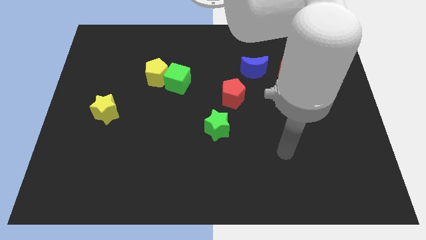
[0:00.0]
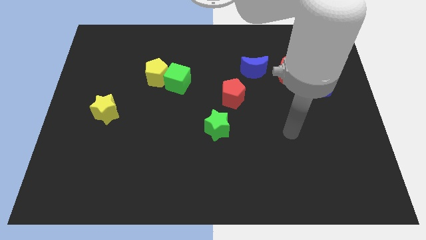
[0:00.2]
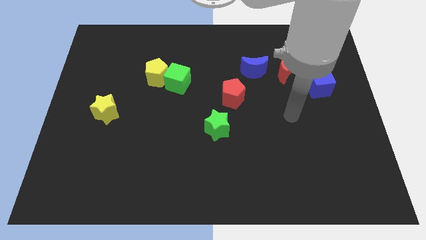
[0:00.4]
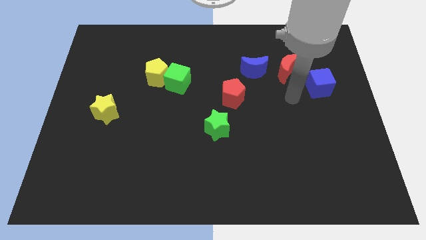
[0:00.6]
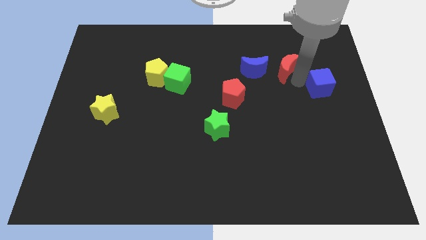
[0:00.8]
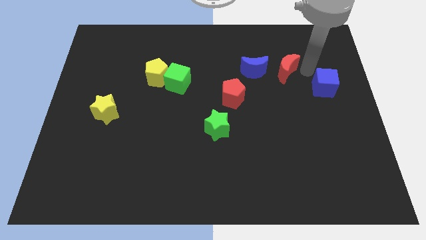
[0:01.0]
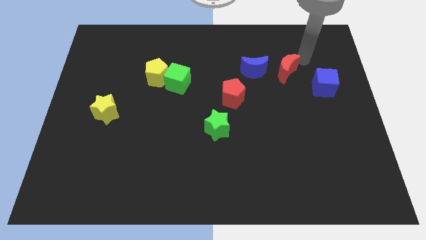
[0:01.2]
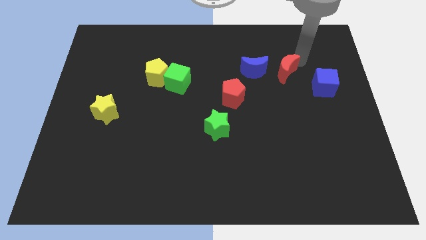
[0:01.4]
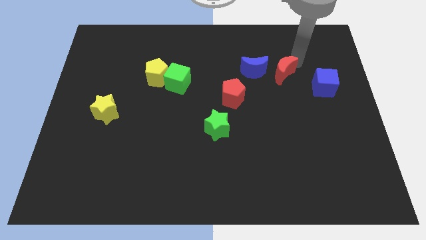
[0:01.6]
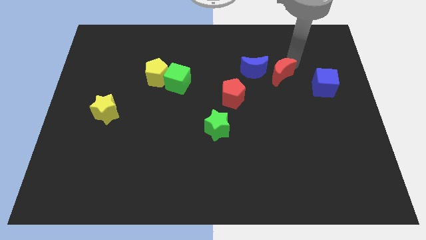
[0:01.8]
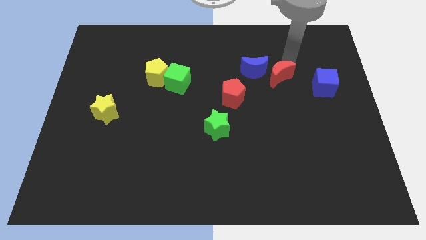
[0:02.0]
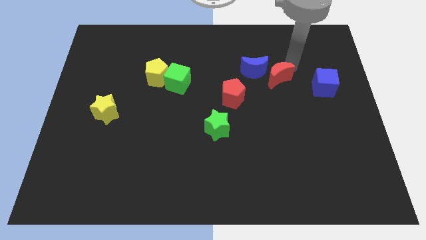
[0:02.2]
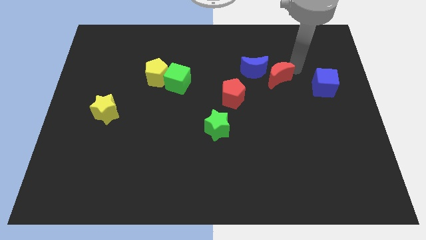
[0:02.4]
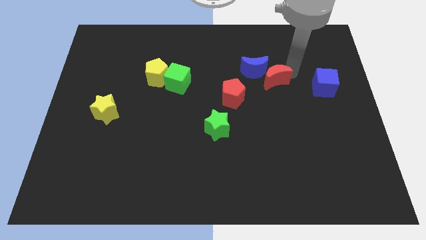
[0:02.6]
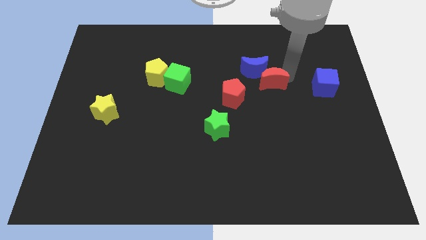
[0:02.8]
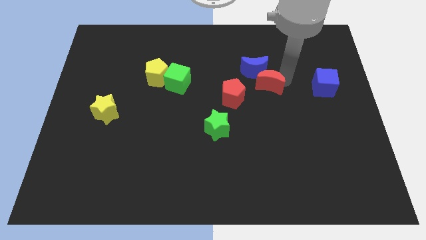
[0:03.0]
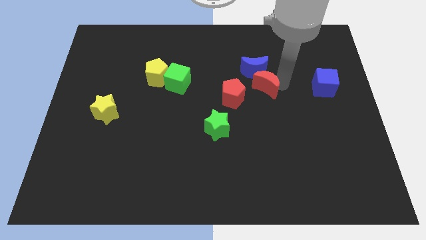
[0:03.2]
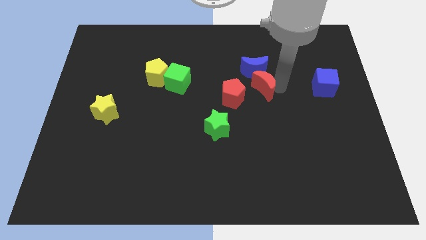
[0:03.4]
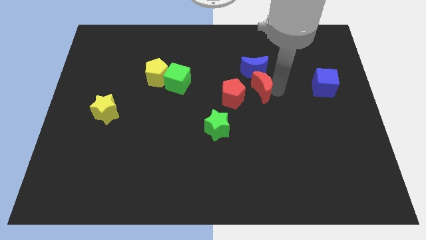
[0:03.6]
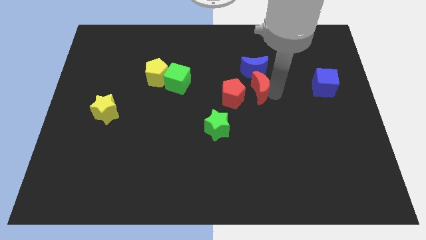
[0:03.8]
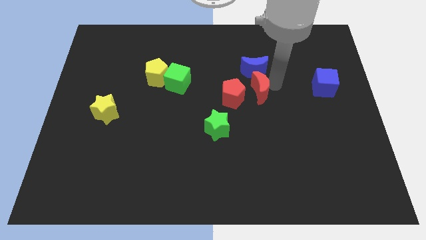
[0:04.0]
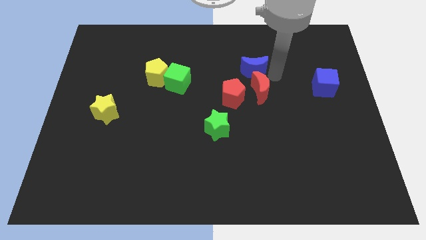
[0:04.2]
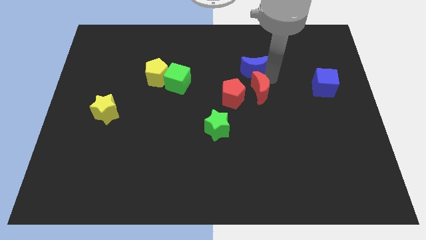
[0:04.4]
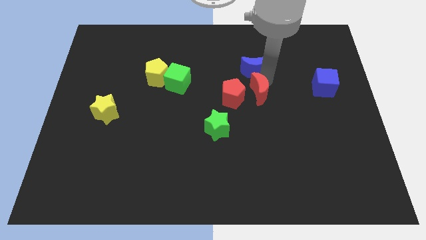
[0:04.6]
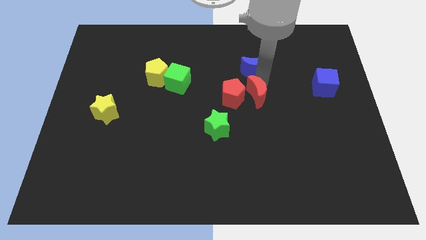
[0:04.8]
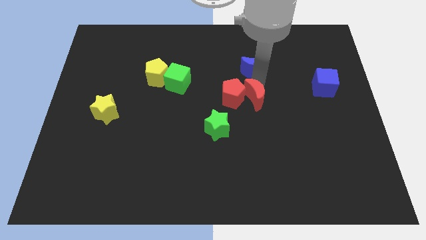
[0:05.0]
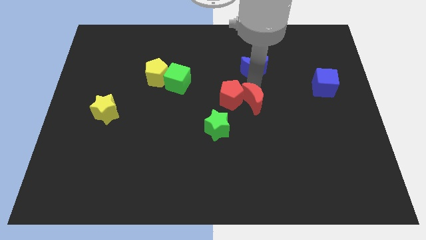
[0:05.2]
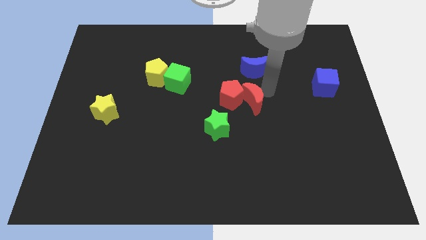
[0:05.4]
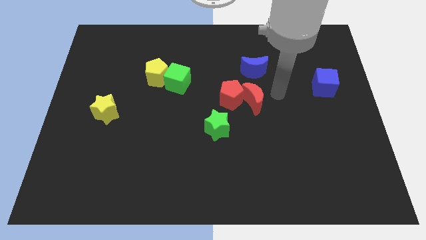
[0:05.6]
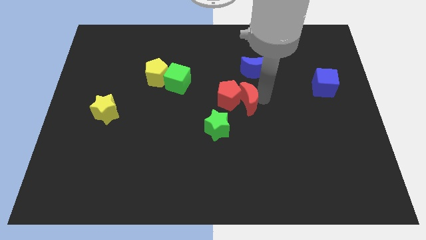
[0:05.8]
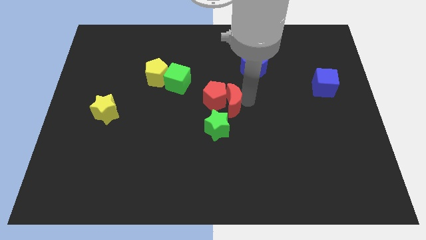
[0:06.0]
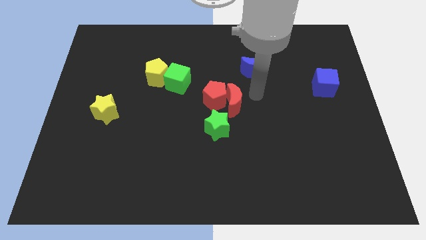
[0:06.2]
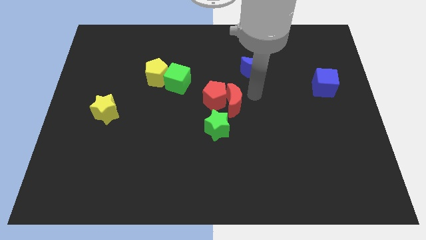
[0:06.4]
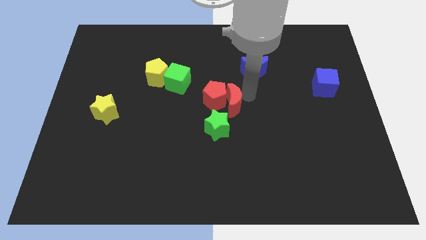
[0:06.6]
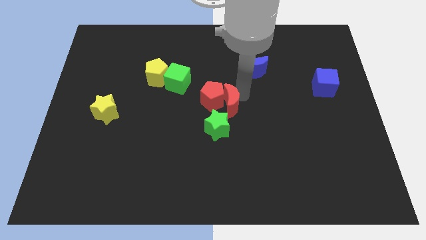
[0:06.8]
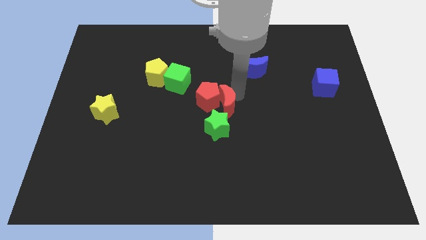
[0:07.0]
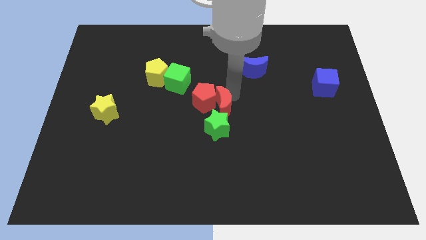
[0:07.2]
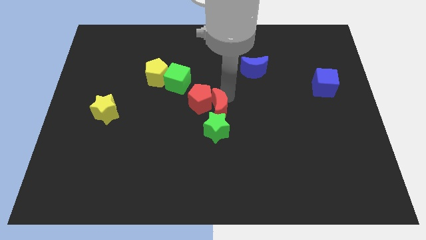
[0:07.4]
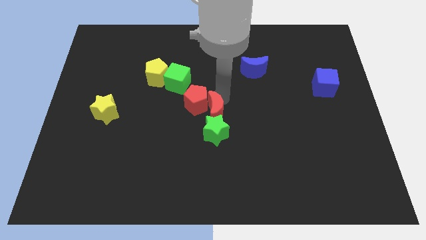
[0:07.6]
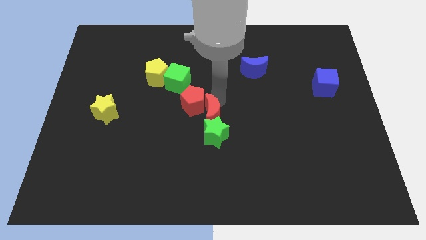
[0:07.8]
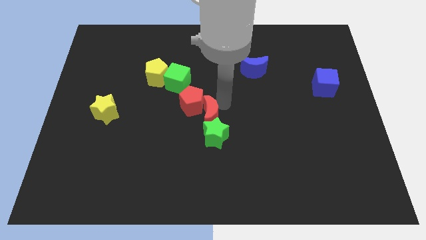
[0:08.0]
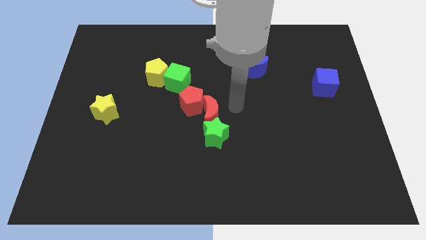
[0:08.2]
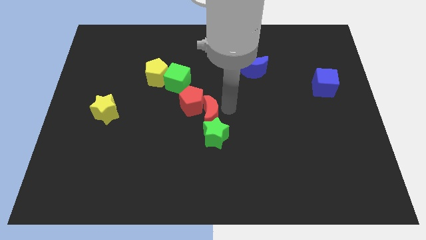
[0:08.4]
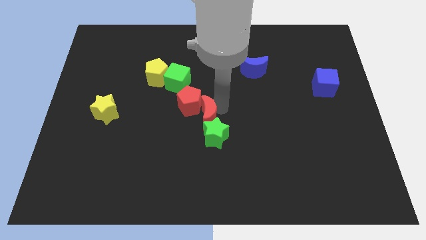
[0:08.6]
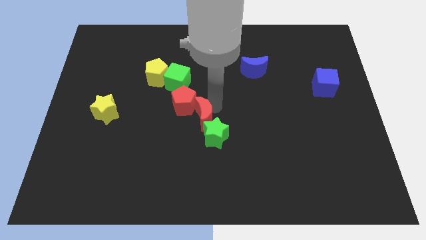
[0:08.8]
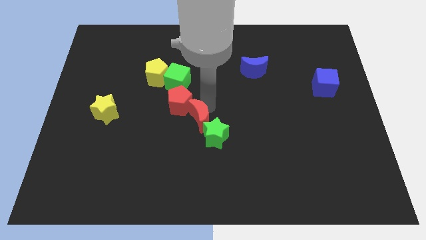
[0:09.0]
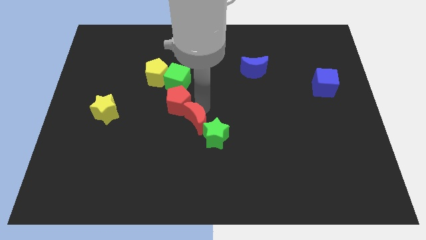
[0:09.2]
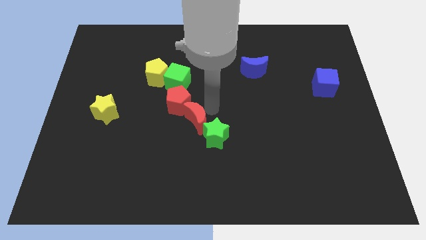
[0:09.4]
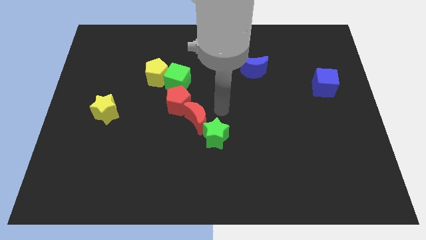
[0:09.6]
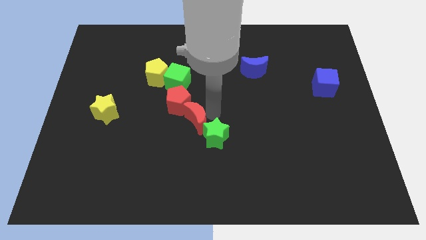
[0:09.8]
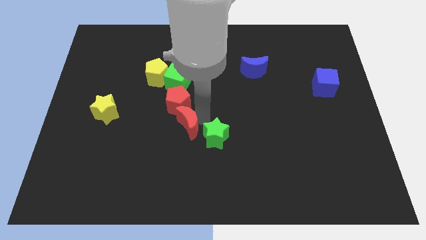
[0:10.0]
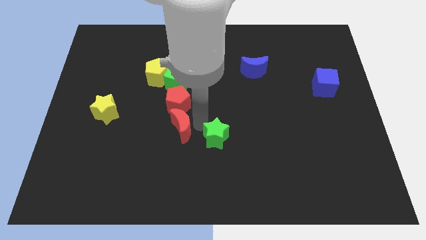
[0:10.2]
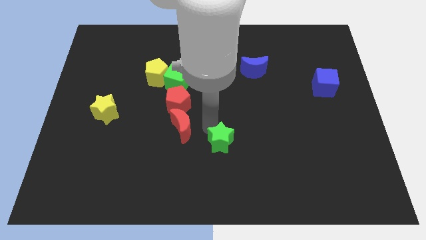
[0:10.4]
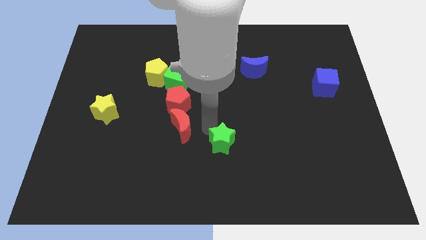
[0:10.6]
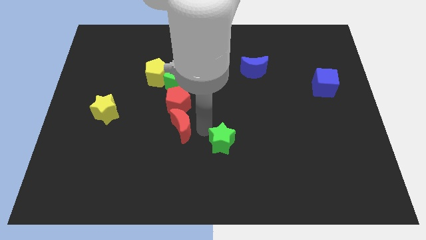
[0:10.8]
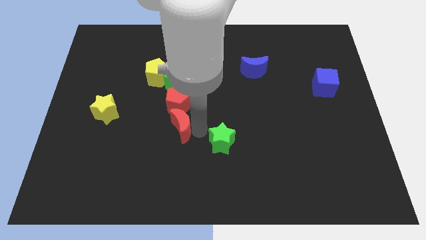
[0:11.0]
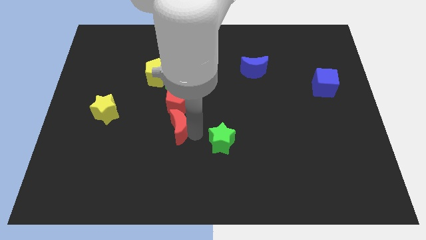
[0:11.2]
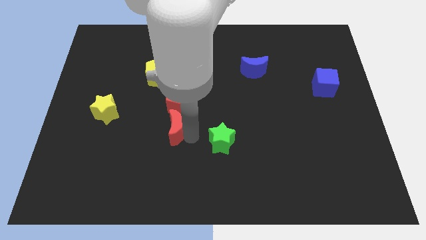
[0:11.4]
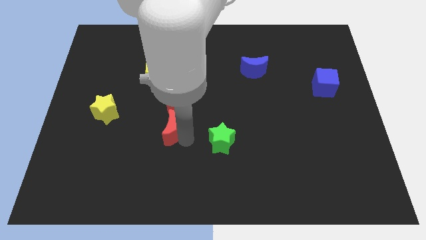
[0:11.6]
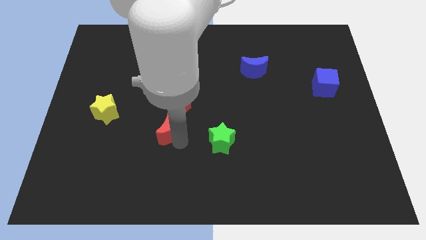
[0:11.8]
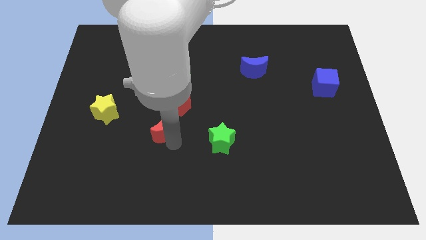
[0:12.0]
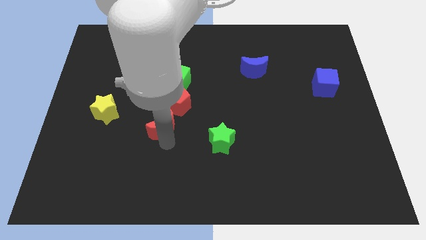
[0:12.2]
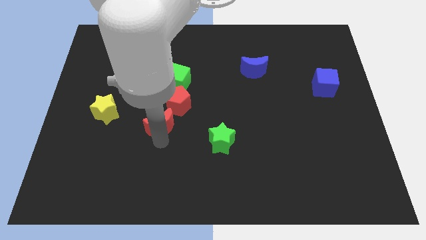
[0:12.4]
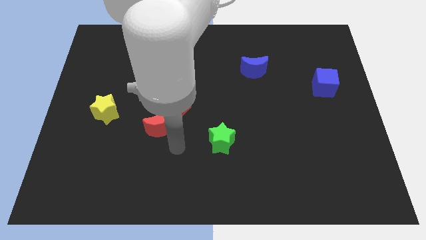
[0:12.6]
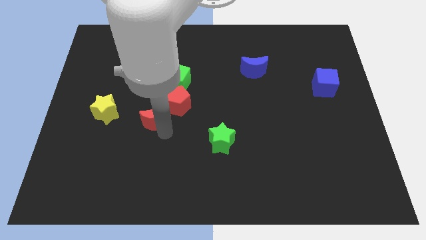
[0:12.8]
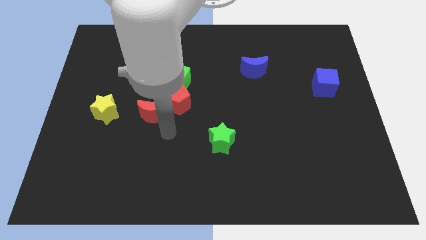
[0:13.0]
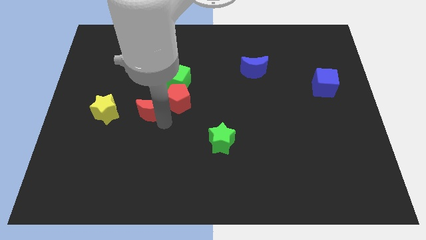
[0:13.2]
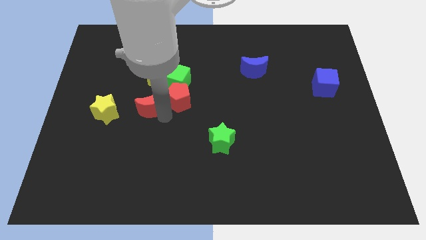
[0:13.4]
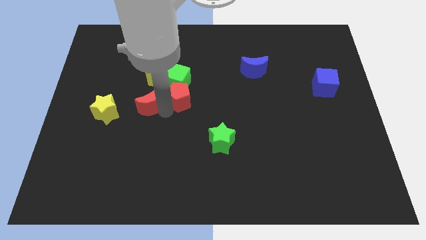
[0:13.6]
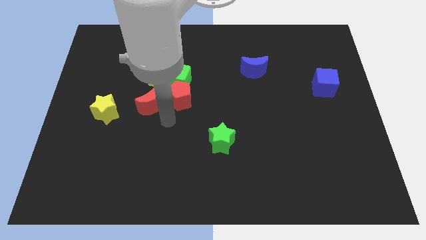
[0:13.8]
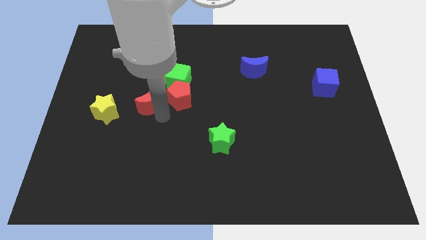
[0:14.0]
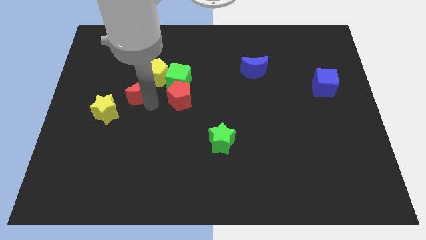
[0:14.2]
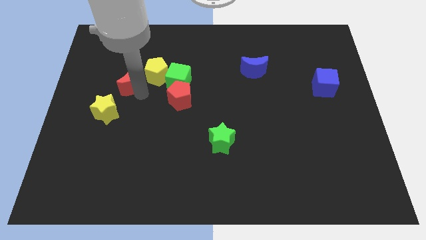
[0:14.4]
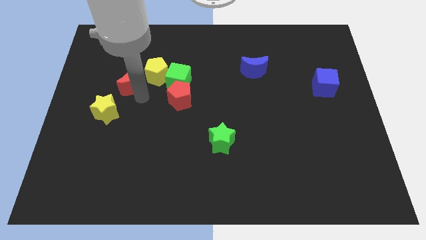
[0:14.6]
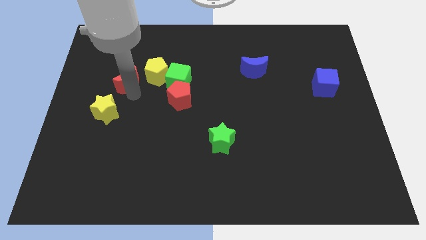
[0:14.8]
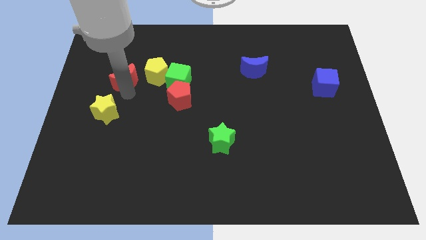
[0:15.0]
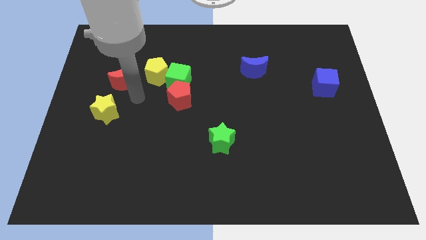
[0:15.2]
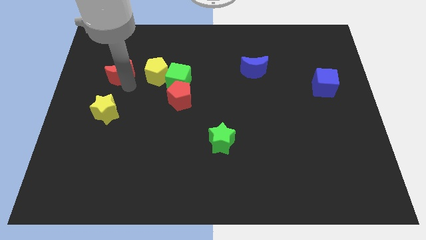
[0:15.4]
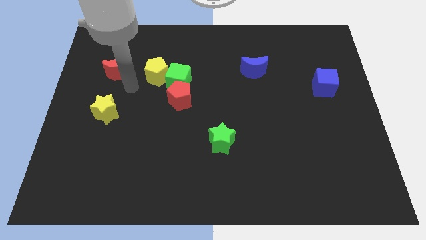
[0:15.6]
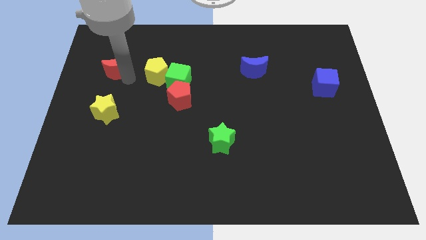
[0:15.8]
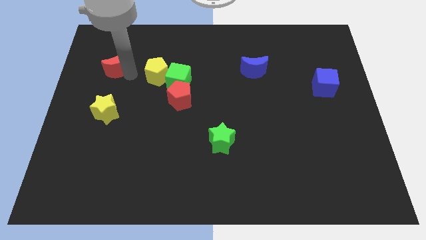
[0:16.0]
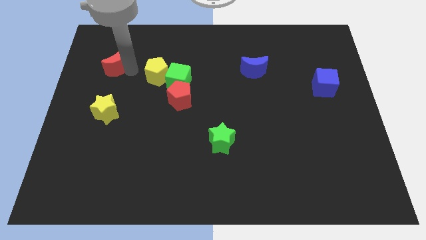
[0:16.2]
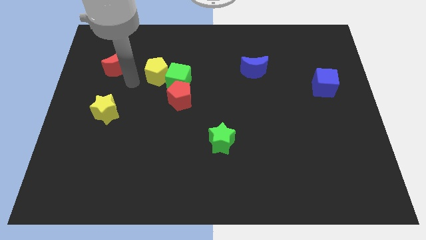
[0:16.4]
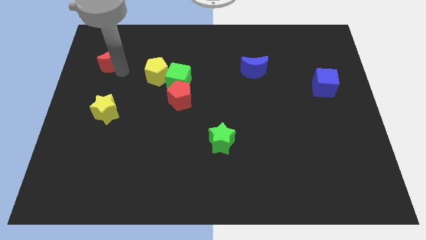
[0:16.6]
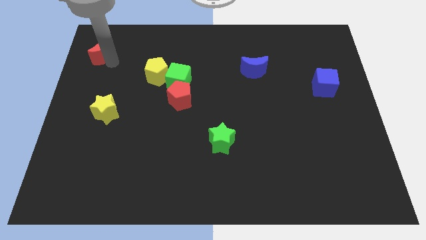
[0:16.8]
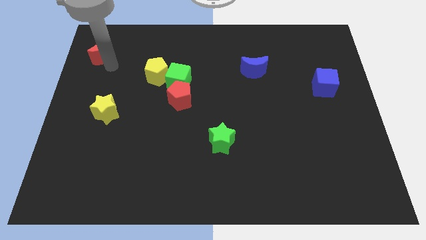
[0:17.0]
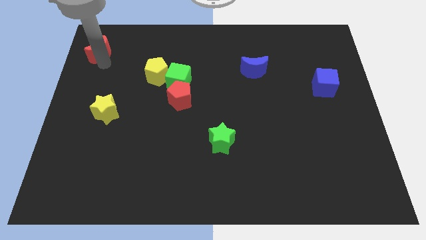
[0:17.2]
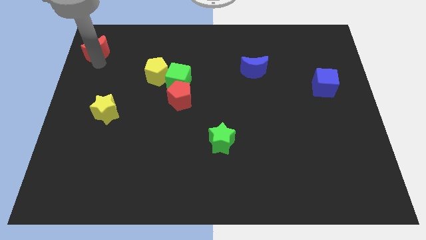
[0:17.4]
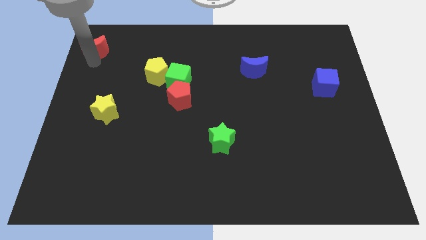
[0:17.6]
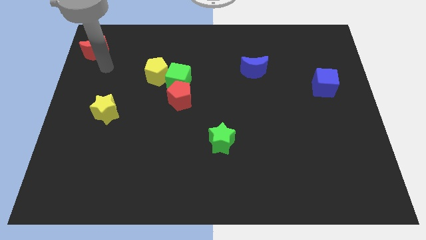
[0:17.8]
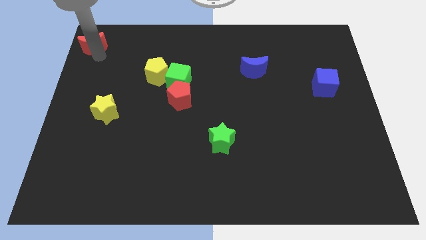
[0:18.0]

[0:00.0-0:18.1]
slide the red moon to the top left corner
